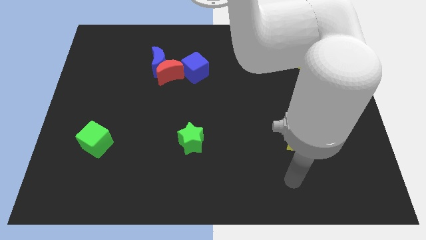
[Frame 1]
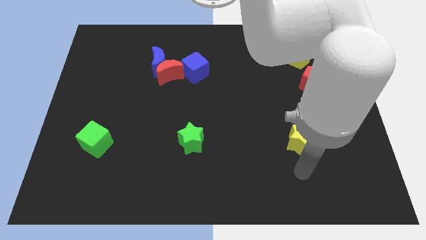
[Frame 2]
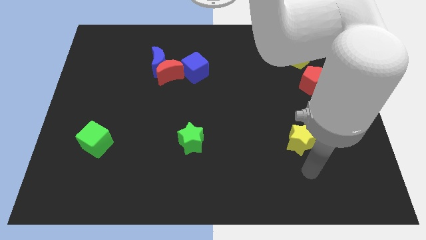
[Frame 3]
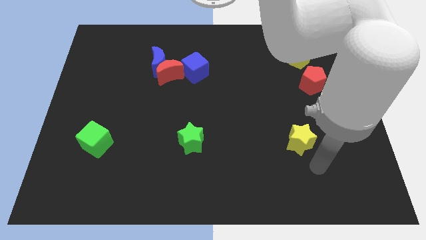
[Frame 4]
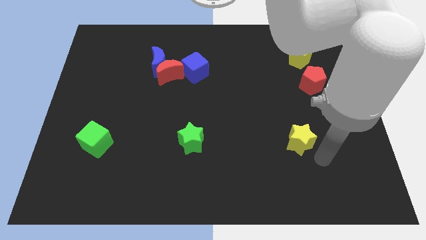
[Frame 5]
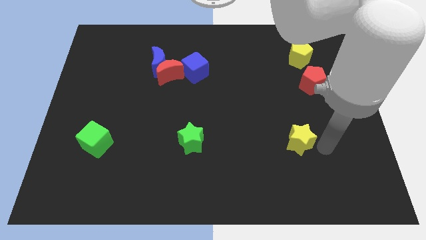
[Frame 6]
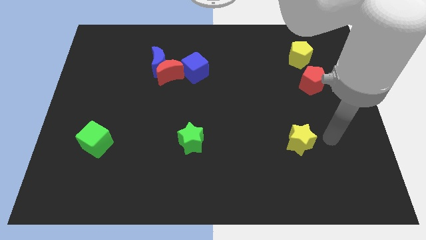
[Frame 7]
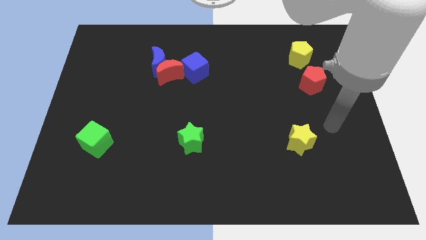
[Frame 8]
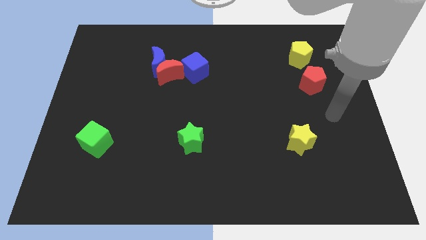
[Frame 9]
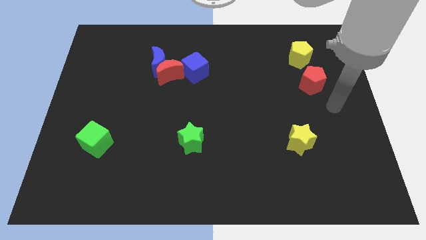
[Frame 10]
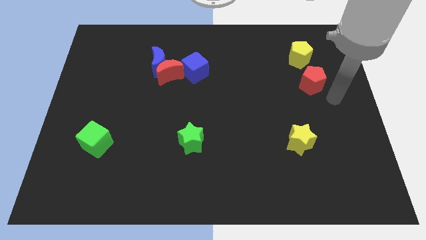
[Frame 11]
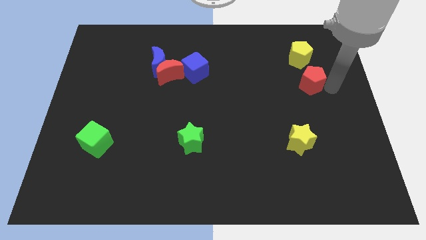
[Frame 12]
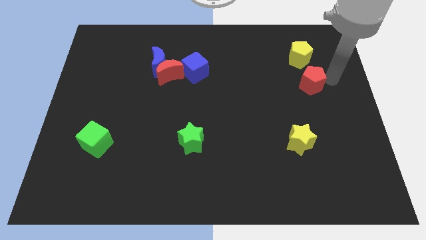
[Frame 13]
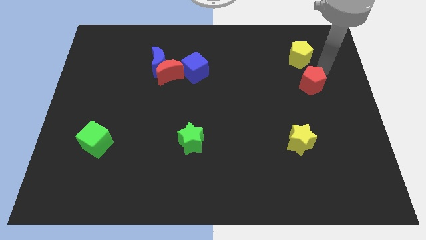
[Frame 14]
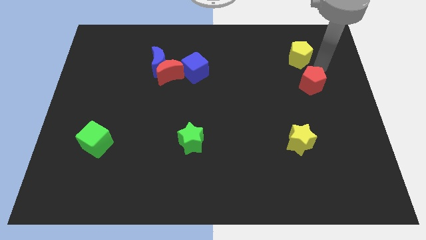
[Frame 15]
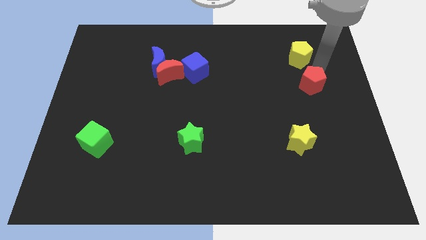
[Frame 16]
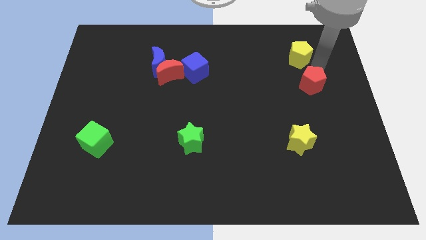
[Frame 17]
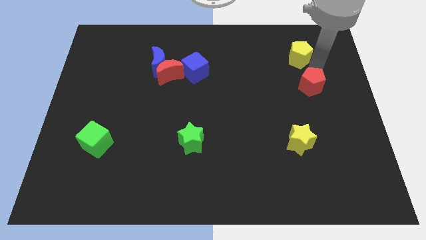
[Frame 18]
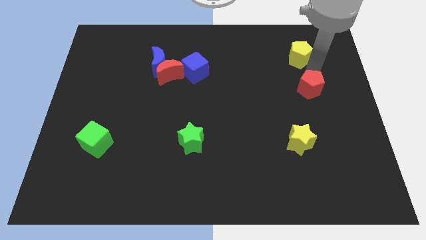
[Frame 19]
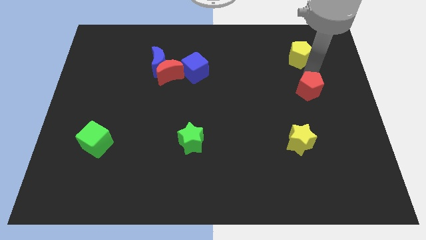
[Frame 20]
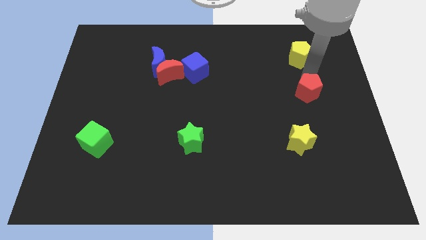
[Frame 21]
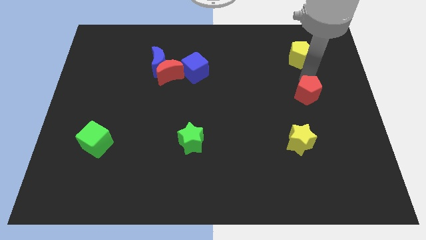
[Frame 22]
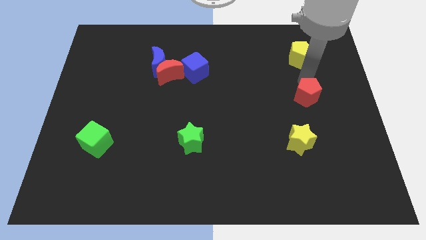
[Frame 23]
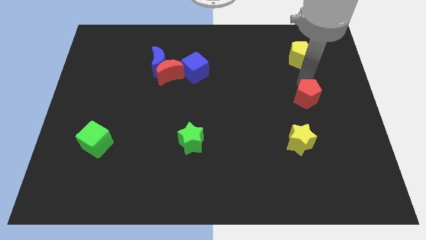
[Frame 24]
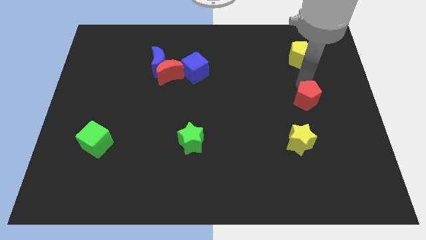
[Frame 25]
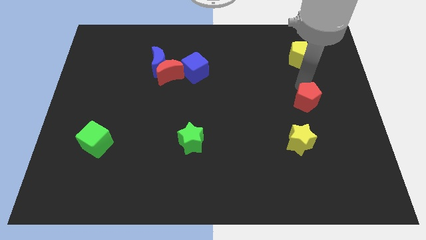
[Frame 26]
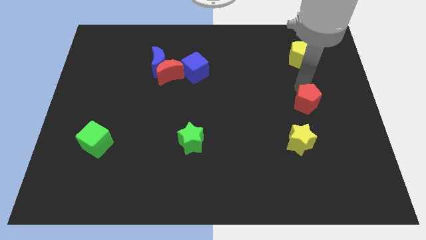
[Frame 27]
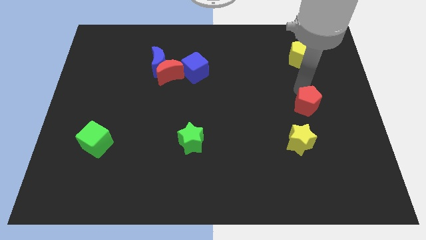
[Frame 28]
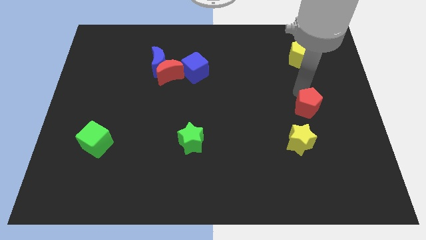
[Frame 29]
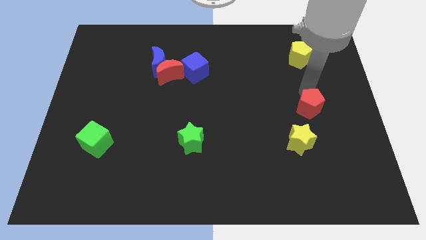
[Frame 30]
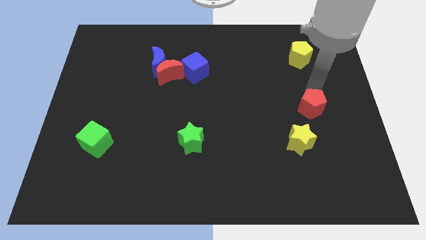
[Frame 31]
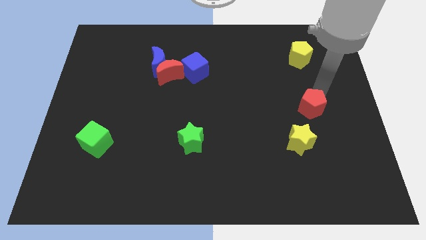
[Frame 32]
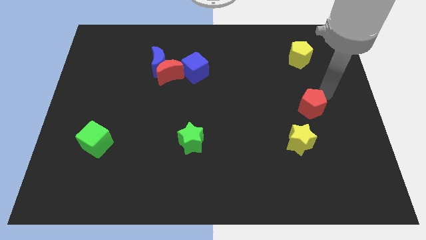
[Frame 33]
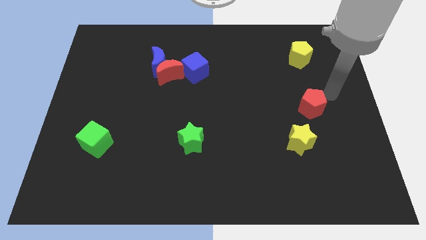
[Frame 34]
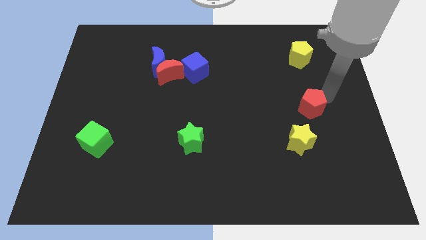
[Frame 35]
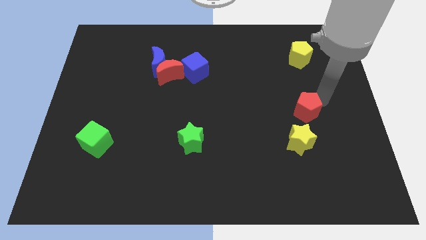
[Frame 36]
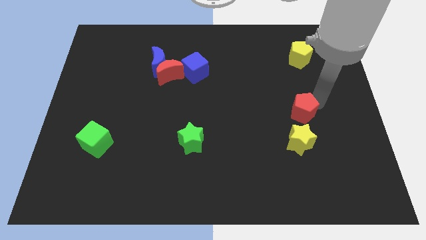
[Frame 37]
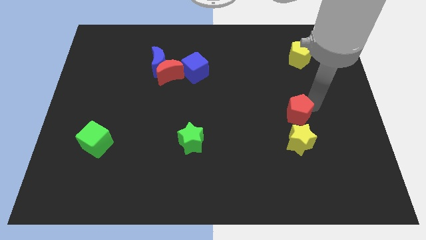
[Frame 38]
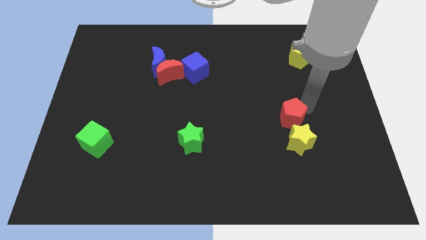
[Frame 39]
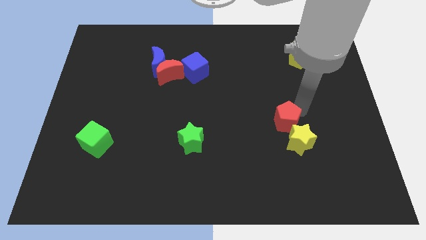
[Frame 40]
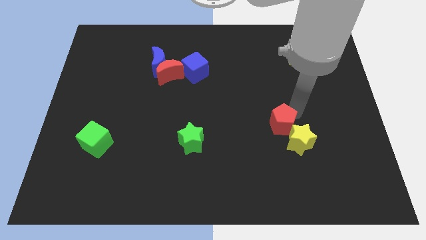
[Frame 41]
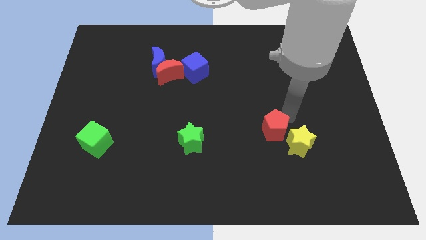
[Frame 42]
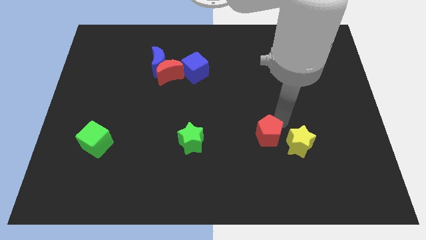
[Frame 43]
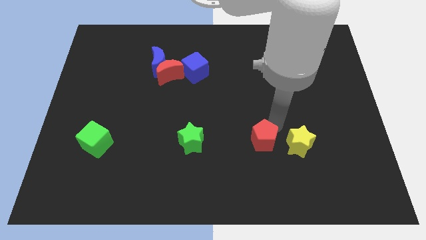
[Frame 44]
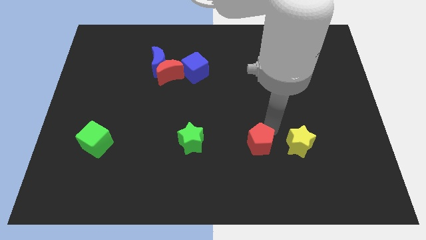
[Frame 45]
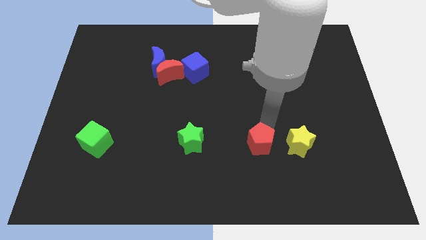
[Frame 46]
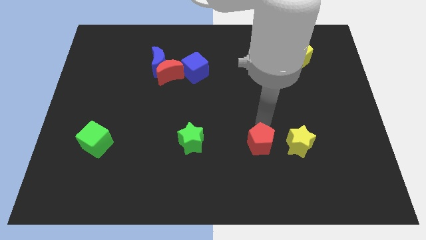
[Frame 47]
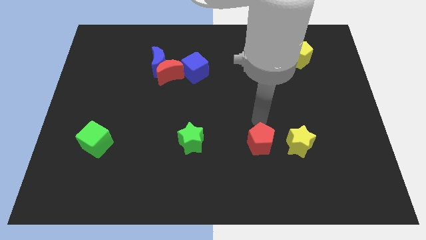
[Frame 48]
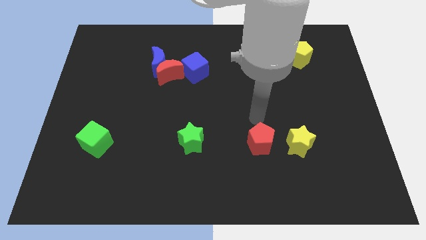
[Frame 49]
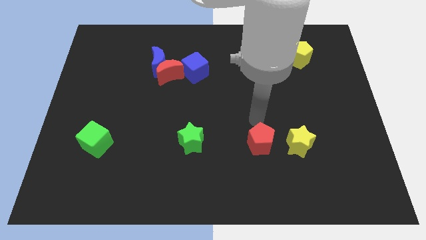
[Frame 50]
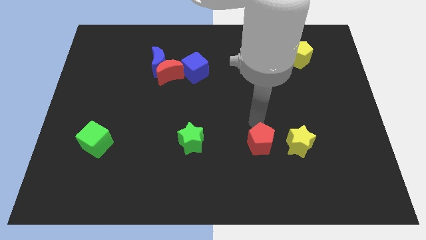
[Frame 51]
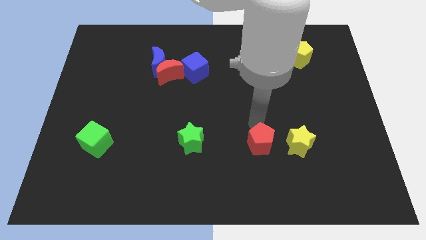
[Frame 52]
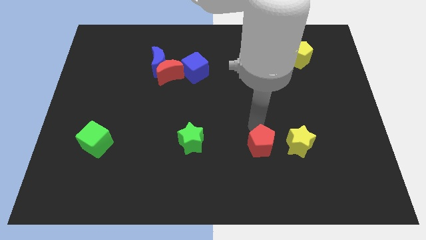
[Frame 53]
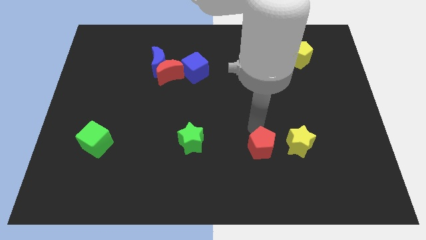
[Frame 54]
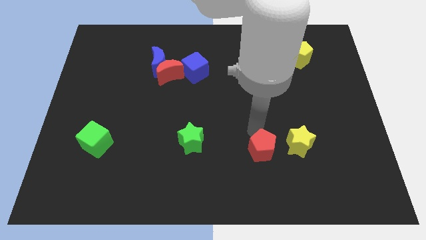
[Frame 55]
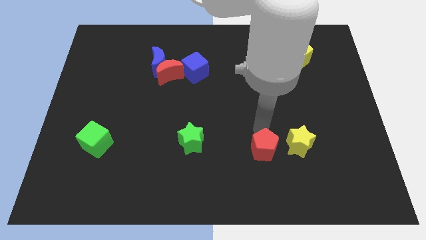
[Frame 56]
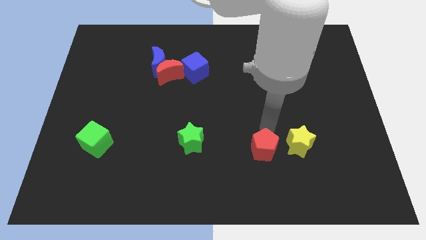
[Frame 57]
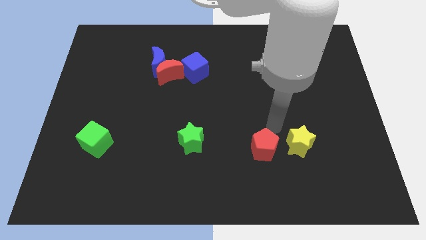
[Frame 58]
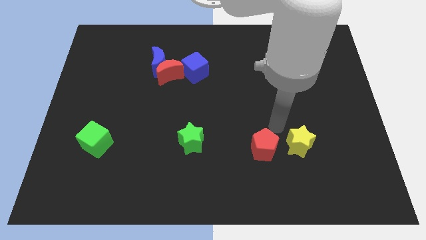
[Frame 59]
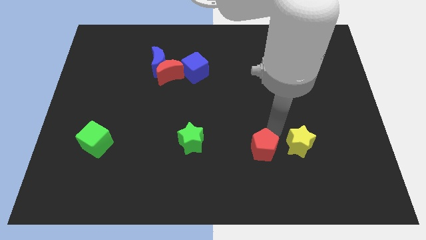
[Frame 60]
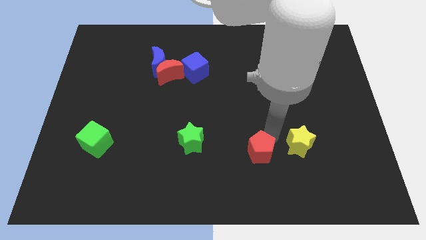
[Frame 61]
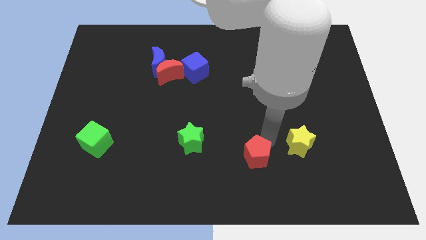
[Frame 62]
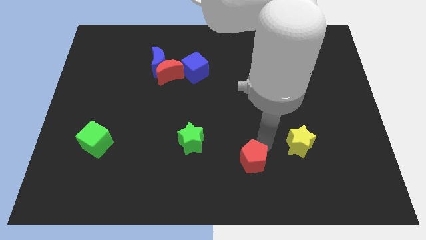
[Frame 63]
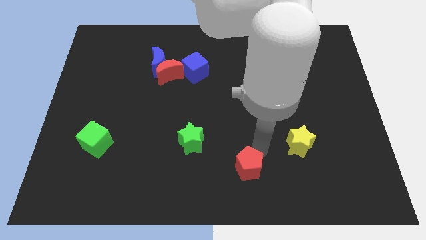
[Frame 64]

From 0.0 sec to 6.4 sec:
put the red pentagon to the bottom

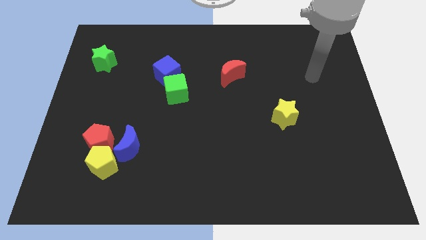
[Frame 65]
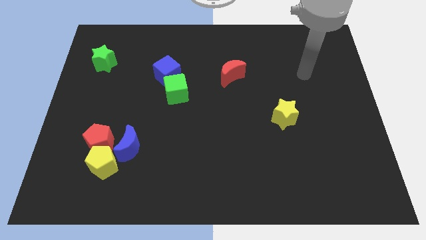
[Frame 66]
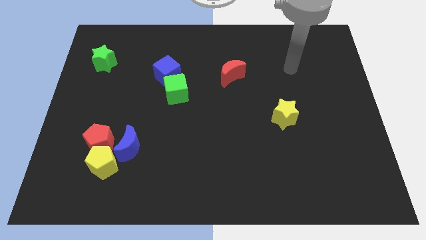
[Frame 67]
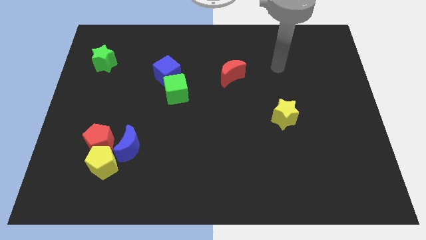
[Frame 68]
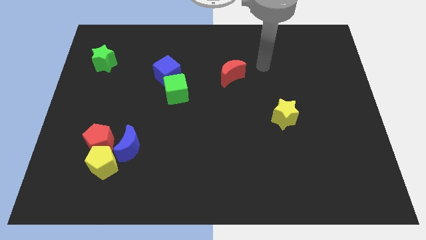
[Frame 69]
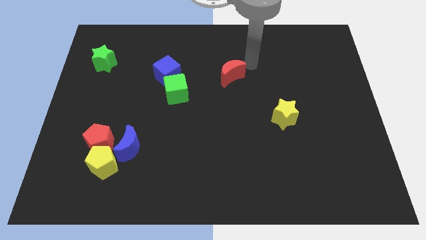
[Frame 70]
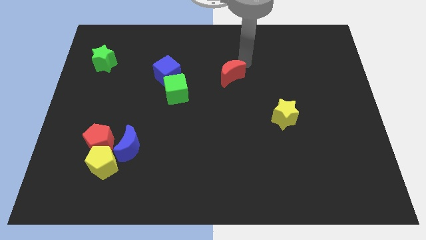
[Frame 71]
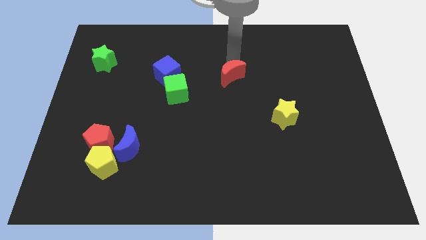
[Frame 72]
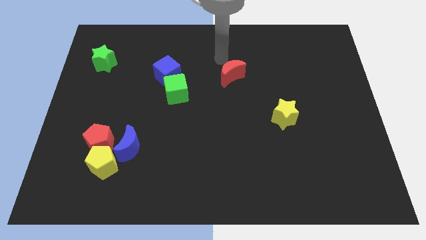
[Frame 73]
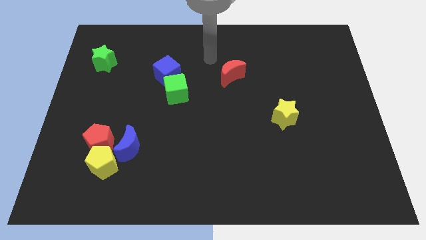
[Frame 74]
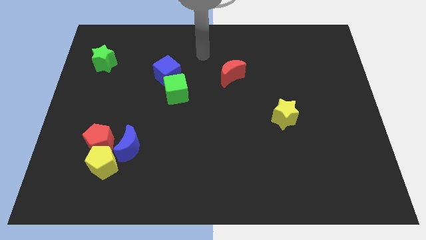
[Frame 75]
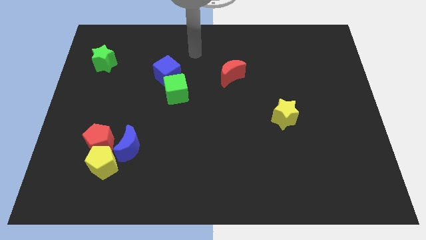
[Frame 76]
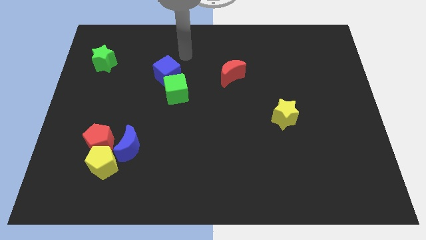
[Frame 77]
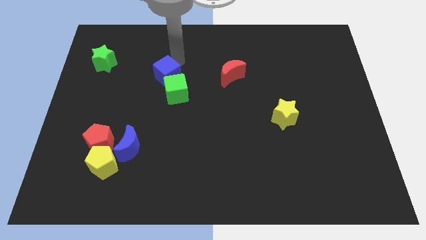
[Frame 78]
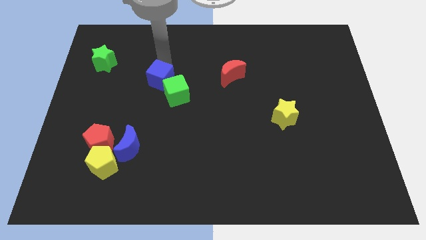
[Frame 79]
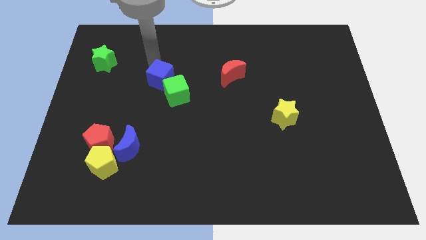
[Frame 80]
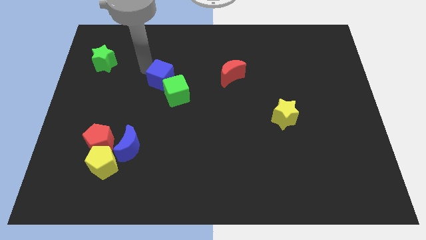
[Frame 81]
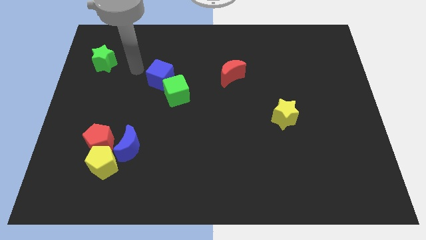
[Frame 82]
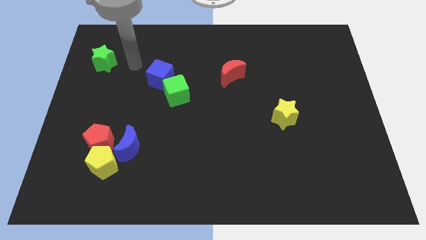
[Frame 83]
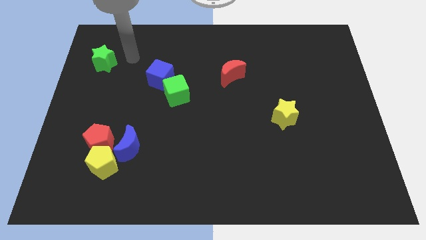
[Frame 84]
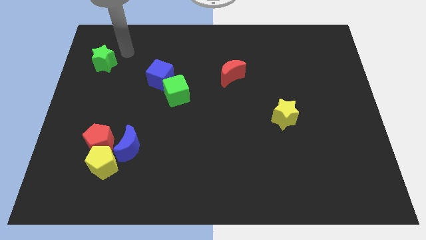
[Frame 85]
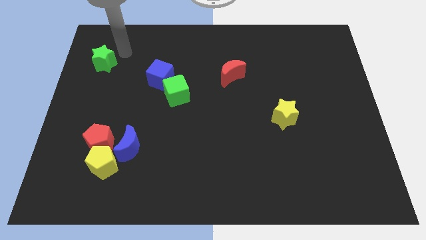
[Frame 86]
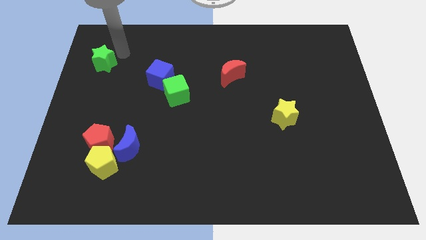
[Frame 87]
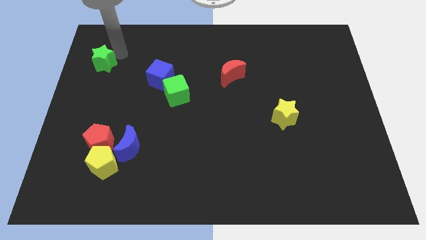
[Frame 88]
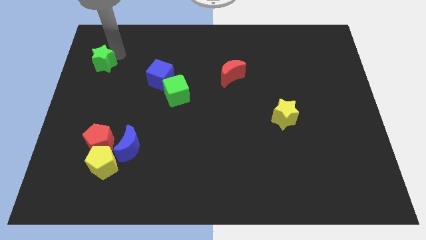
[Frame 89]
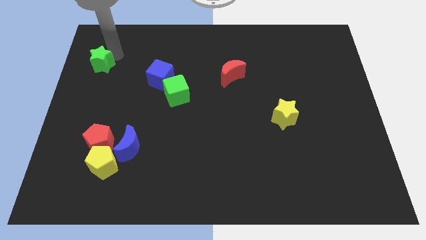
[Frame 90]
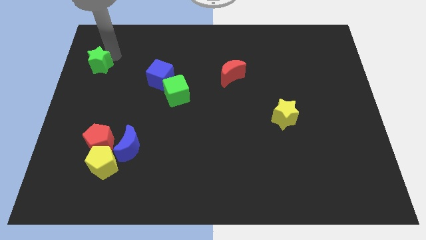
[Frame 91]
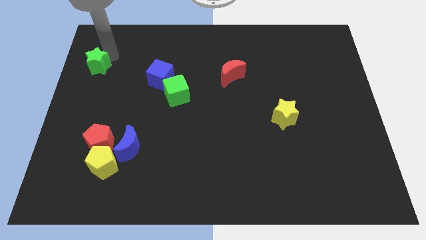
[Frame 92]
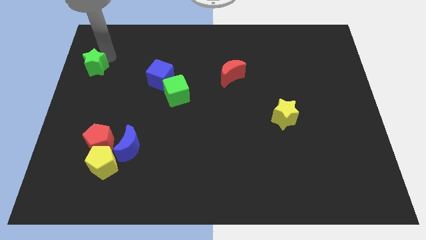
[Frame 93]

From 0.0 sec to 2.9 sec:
slide the green star to the left side of the board
